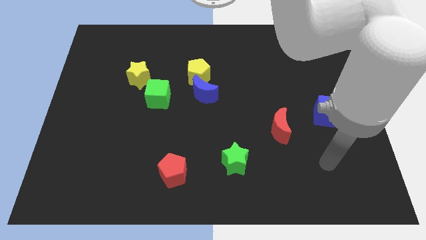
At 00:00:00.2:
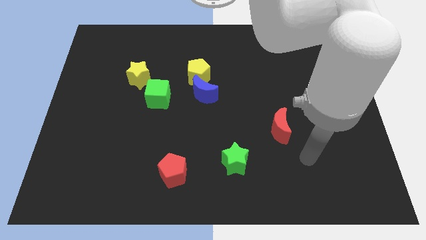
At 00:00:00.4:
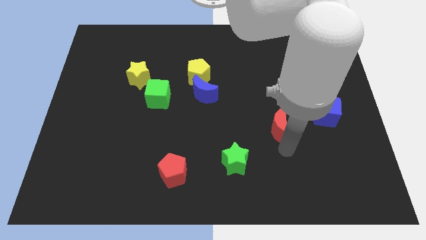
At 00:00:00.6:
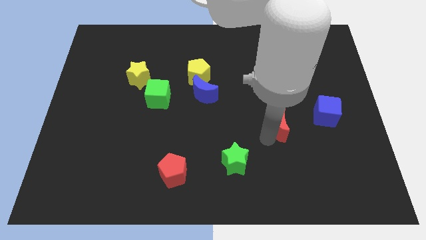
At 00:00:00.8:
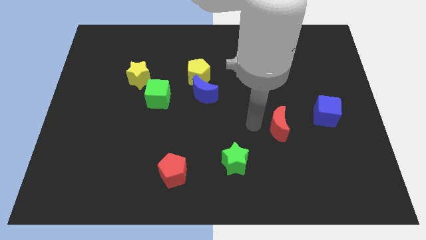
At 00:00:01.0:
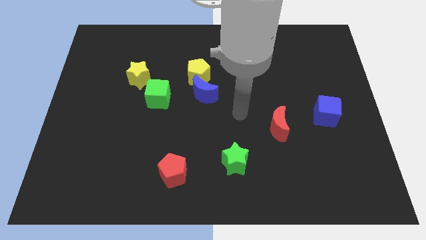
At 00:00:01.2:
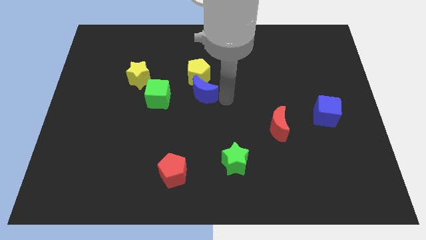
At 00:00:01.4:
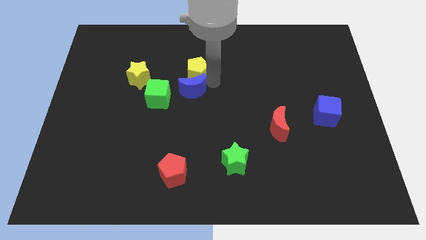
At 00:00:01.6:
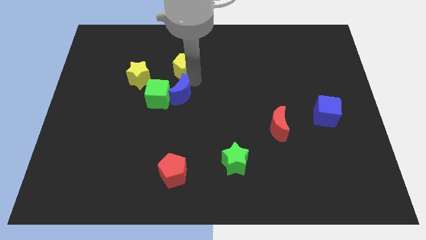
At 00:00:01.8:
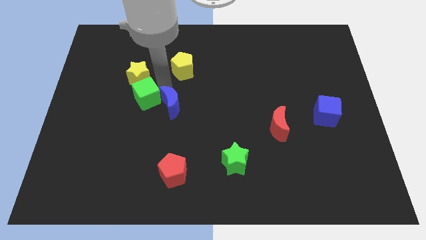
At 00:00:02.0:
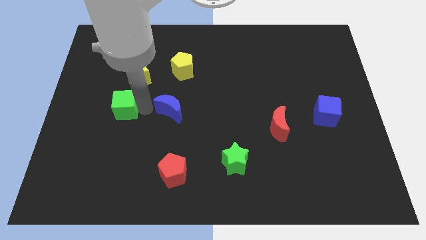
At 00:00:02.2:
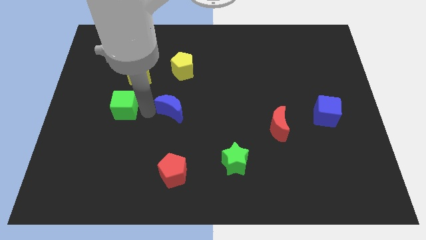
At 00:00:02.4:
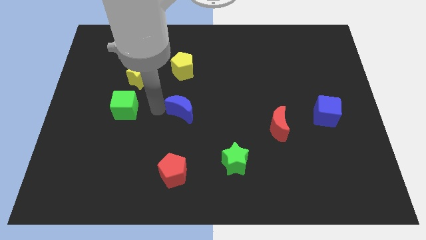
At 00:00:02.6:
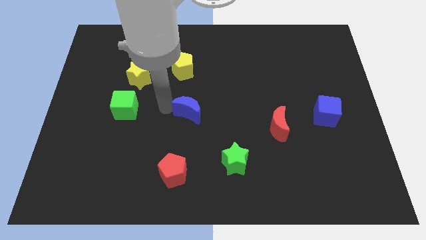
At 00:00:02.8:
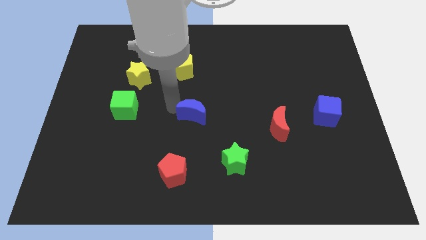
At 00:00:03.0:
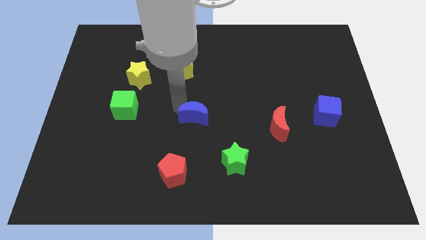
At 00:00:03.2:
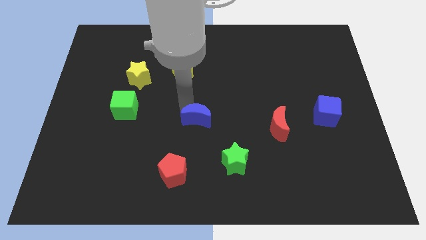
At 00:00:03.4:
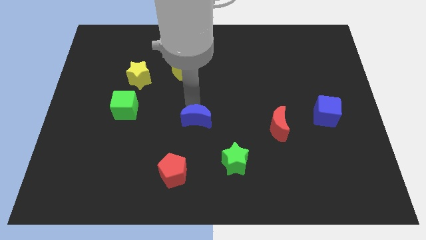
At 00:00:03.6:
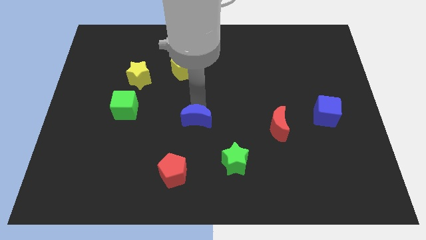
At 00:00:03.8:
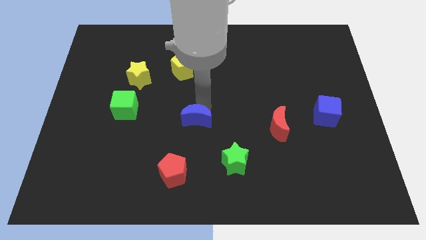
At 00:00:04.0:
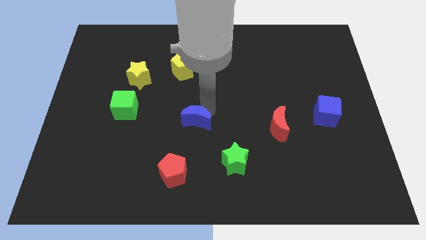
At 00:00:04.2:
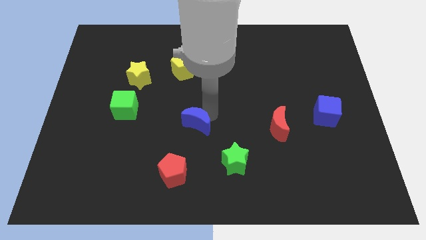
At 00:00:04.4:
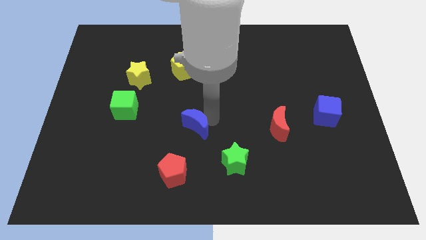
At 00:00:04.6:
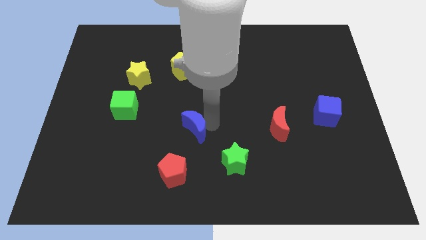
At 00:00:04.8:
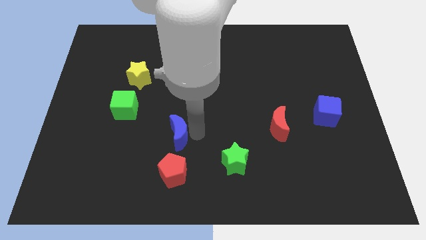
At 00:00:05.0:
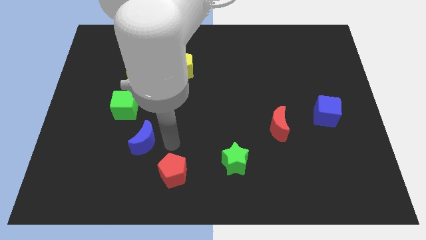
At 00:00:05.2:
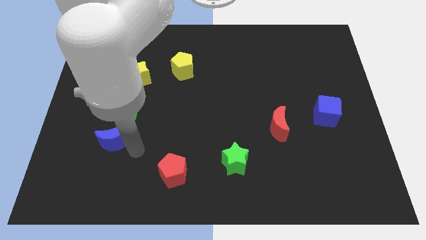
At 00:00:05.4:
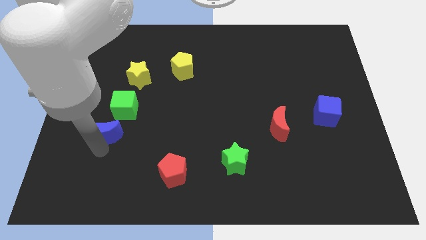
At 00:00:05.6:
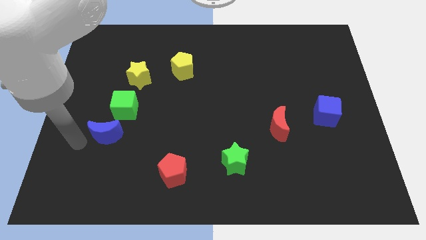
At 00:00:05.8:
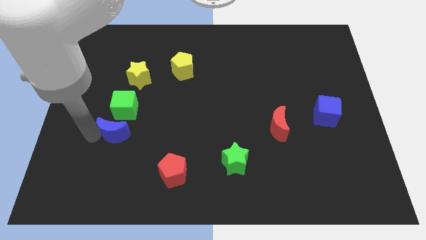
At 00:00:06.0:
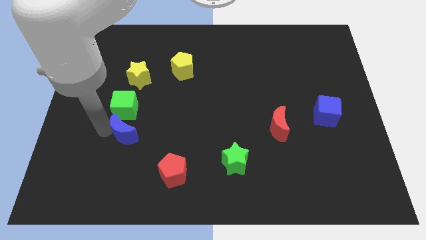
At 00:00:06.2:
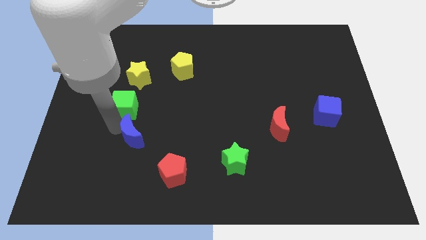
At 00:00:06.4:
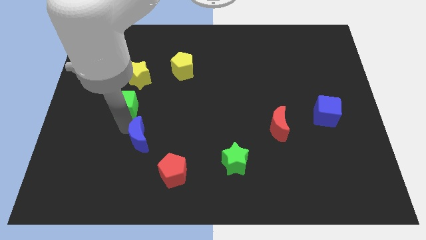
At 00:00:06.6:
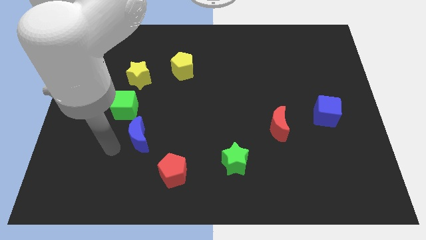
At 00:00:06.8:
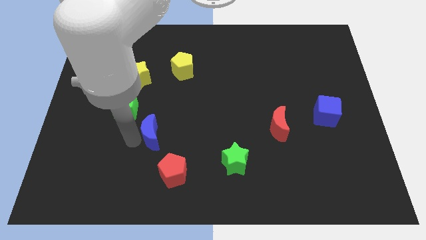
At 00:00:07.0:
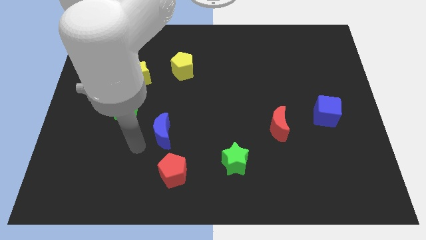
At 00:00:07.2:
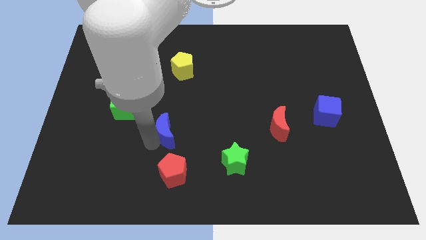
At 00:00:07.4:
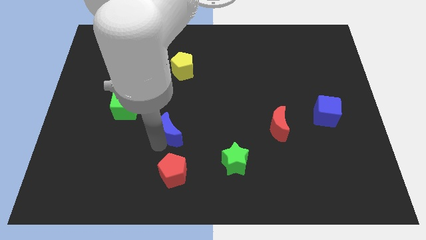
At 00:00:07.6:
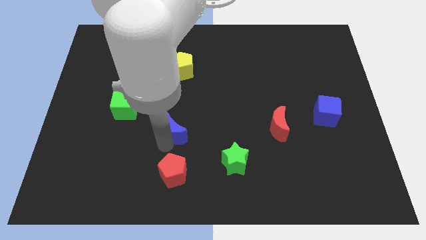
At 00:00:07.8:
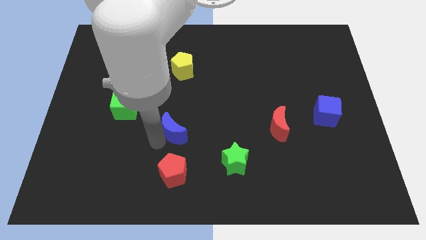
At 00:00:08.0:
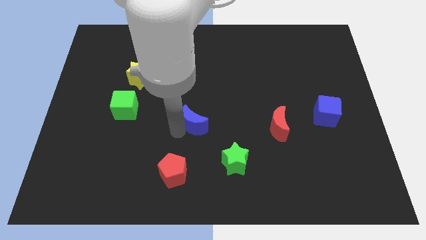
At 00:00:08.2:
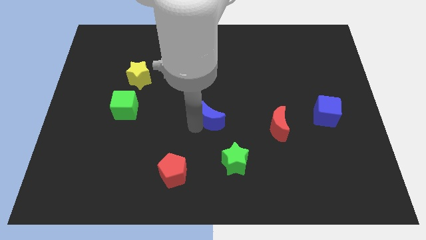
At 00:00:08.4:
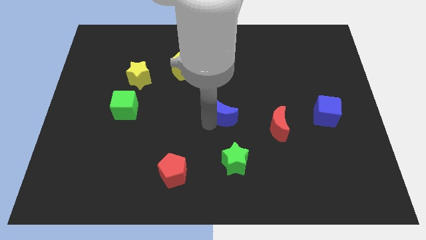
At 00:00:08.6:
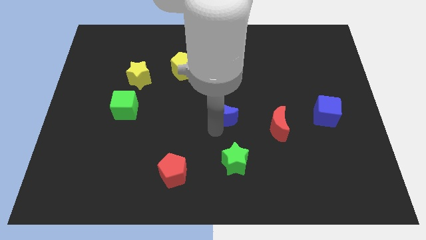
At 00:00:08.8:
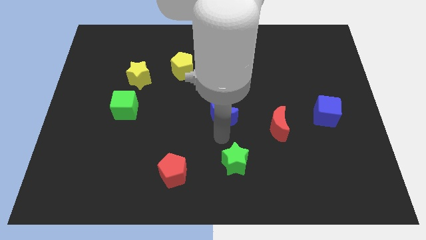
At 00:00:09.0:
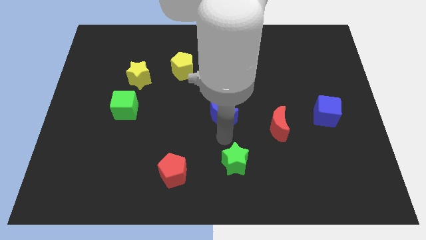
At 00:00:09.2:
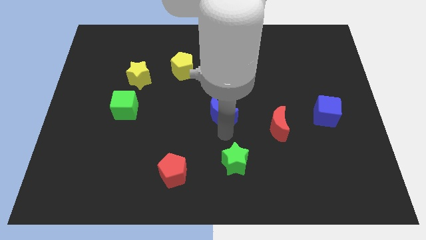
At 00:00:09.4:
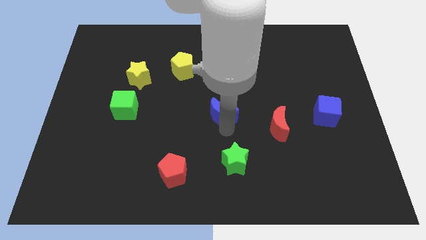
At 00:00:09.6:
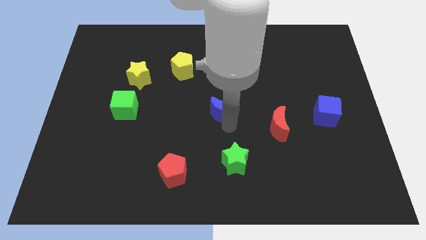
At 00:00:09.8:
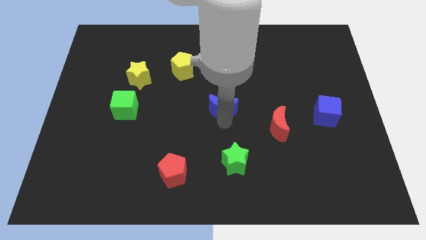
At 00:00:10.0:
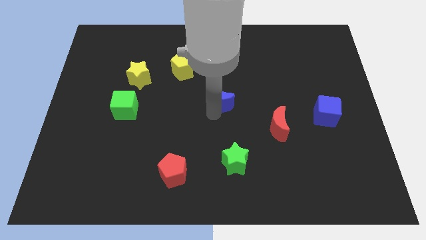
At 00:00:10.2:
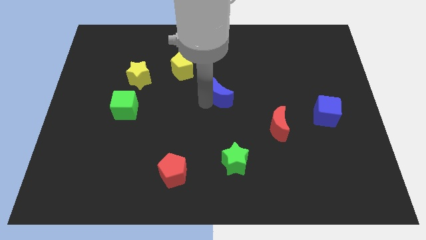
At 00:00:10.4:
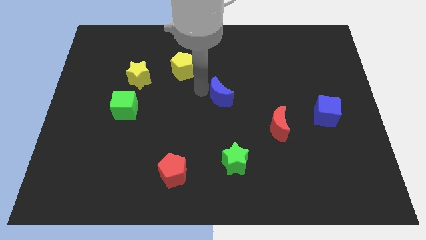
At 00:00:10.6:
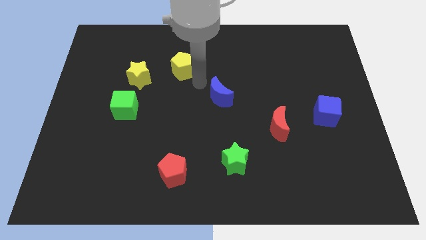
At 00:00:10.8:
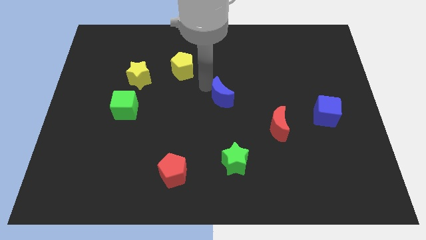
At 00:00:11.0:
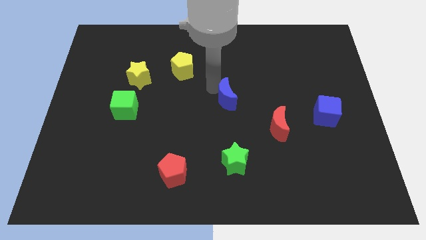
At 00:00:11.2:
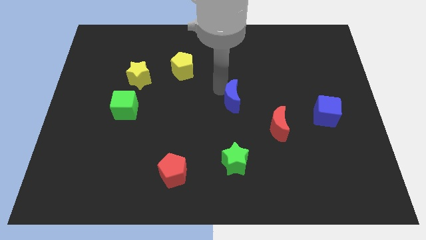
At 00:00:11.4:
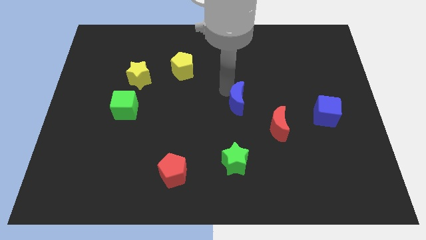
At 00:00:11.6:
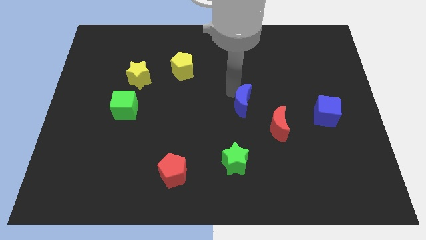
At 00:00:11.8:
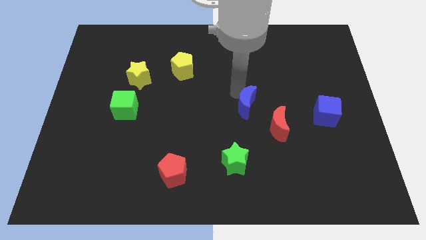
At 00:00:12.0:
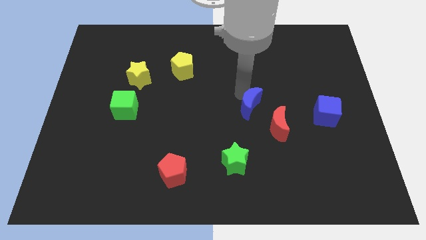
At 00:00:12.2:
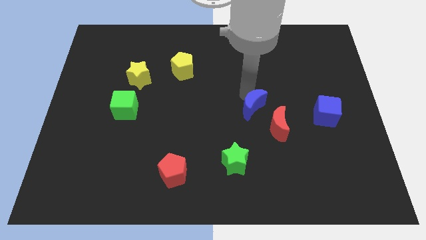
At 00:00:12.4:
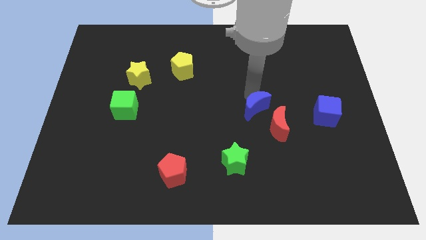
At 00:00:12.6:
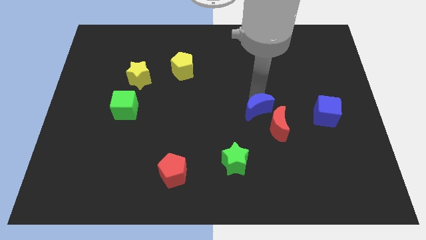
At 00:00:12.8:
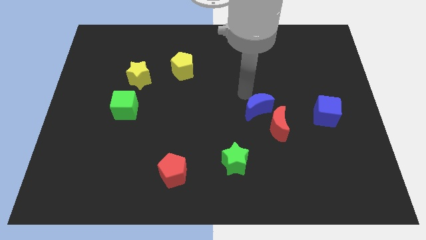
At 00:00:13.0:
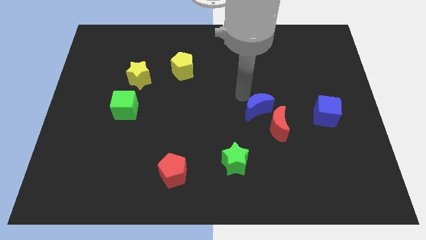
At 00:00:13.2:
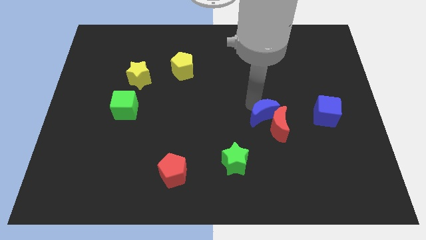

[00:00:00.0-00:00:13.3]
push the blue moon next to the red moon

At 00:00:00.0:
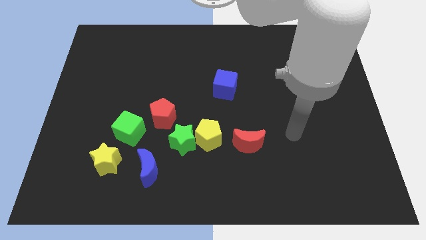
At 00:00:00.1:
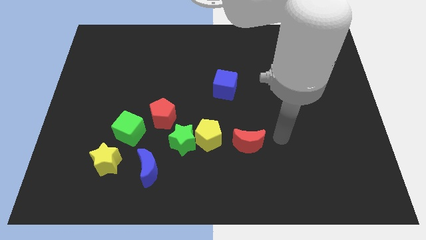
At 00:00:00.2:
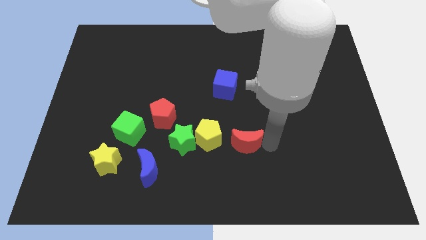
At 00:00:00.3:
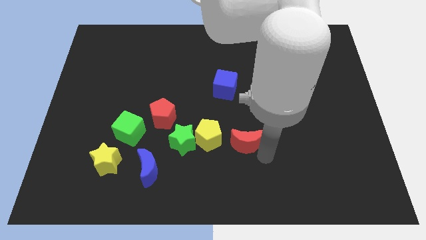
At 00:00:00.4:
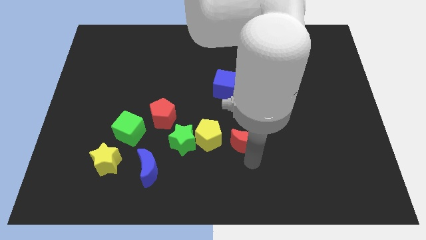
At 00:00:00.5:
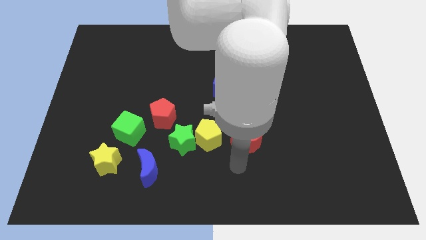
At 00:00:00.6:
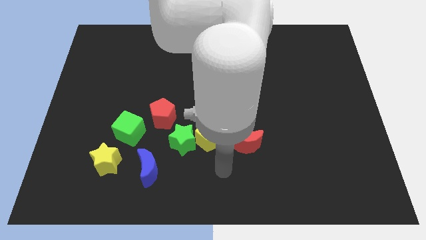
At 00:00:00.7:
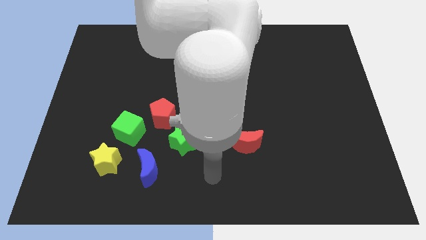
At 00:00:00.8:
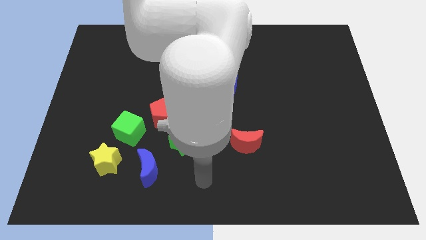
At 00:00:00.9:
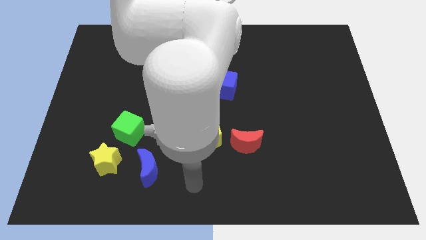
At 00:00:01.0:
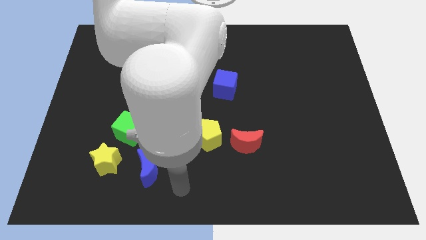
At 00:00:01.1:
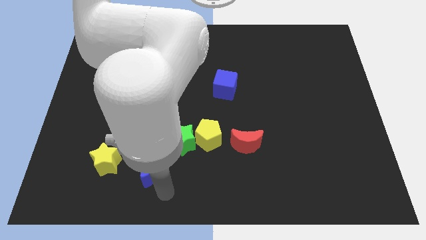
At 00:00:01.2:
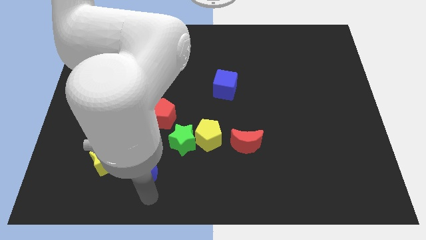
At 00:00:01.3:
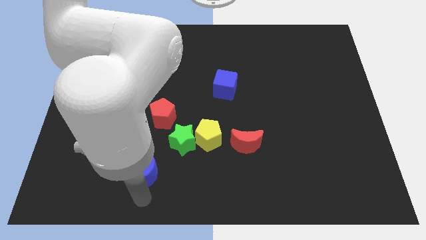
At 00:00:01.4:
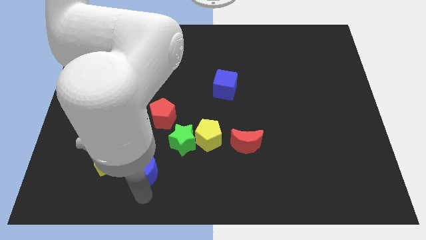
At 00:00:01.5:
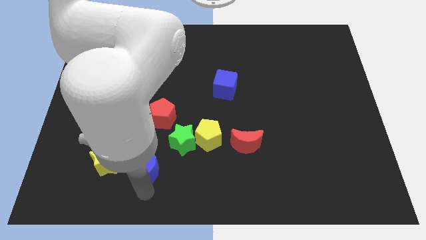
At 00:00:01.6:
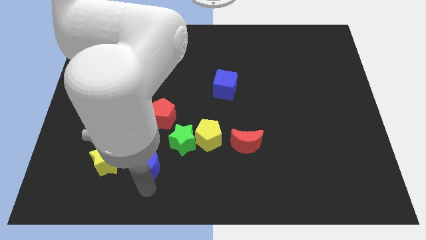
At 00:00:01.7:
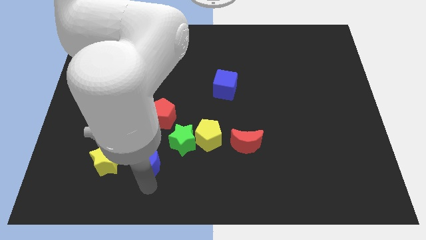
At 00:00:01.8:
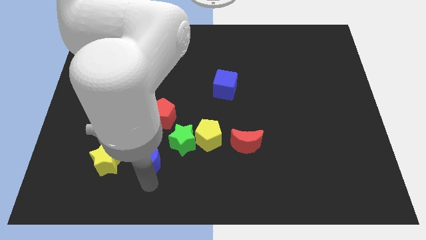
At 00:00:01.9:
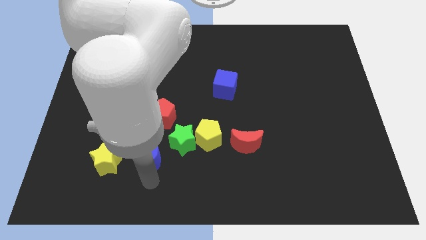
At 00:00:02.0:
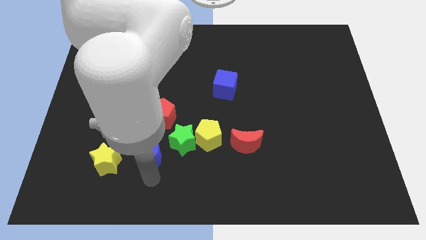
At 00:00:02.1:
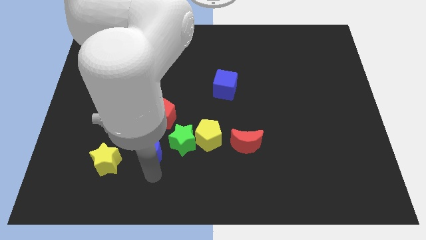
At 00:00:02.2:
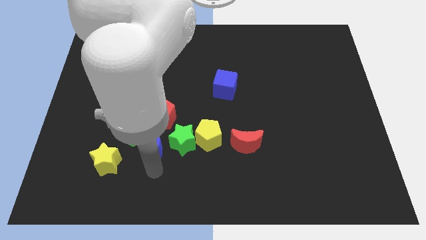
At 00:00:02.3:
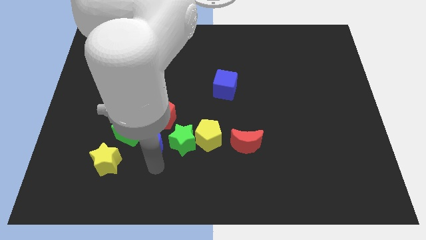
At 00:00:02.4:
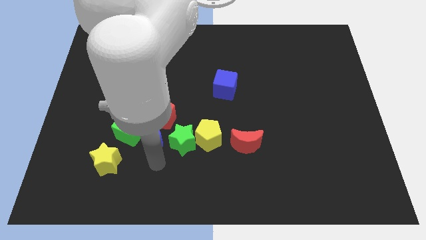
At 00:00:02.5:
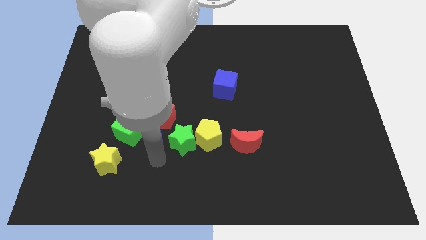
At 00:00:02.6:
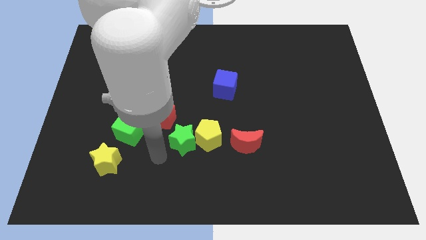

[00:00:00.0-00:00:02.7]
slide the blue moon next to the red pentagon
